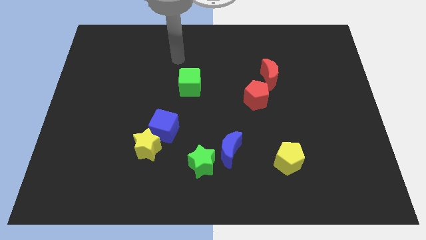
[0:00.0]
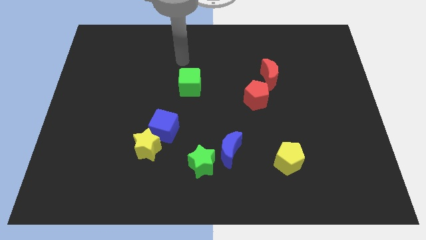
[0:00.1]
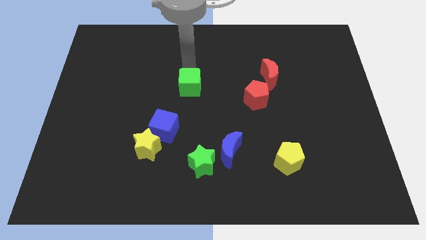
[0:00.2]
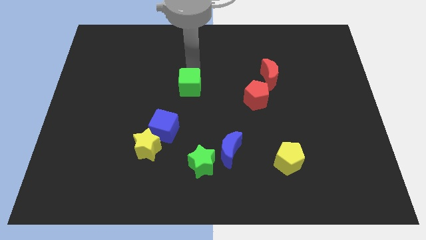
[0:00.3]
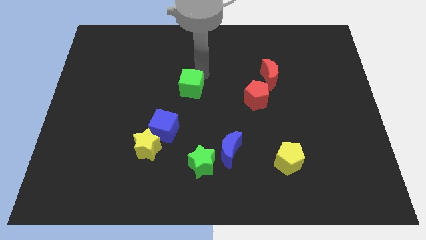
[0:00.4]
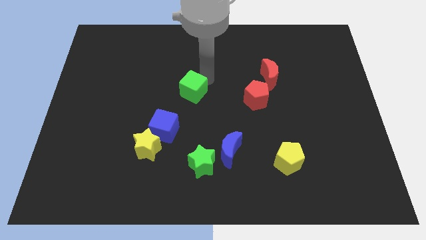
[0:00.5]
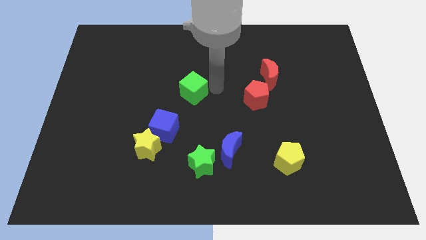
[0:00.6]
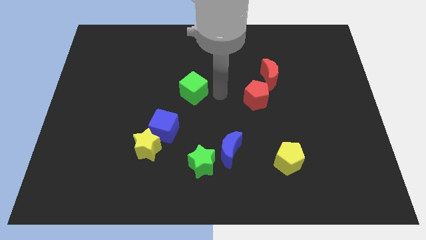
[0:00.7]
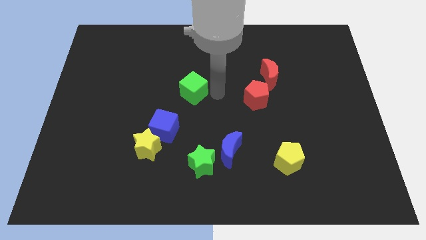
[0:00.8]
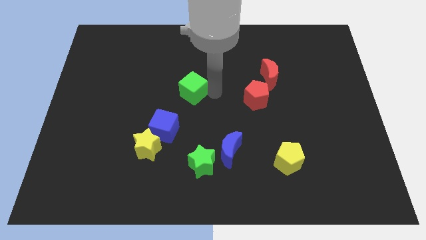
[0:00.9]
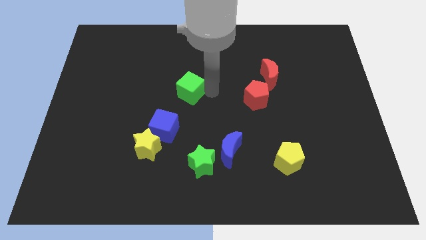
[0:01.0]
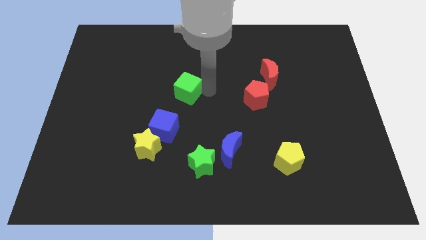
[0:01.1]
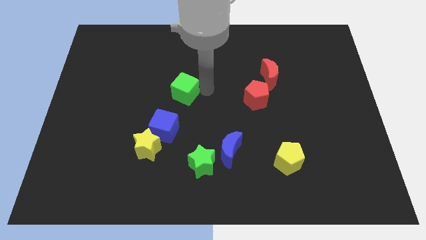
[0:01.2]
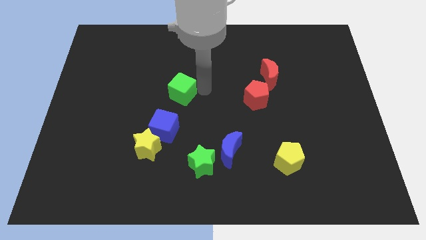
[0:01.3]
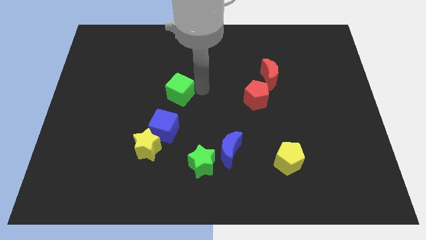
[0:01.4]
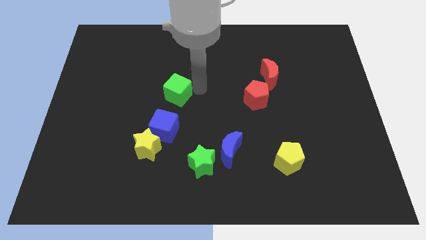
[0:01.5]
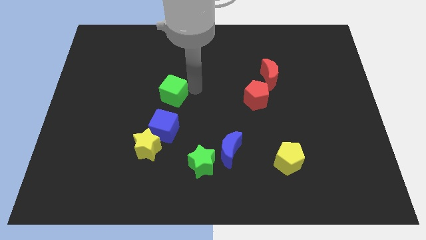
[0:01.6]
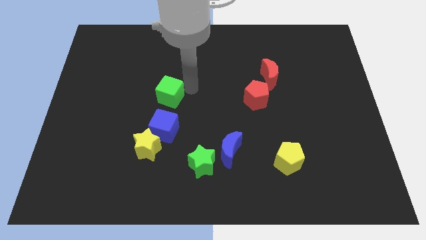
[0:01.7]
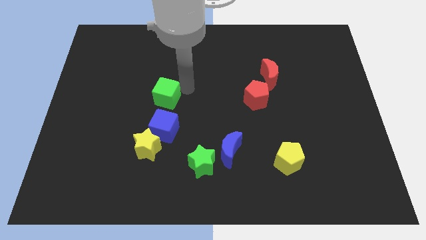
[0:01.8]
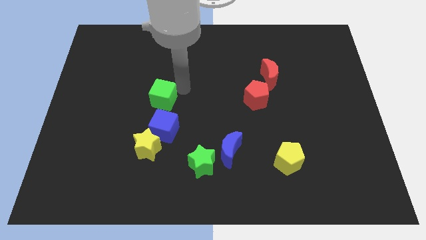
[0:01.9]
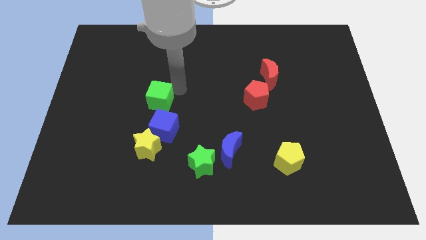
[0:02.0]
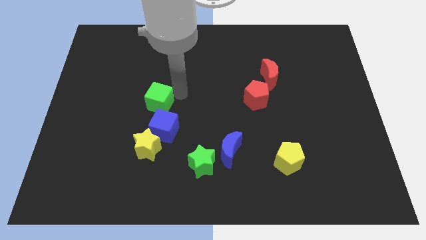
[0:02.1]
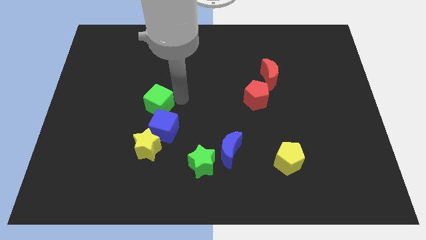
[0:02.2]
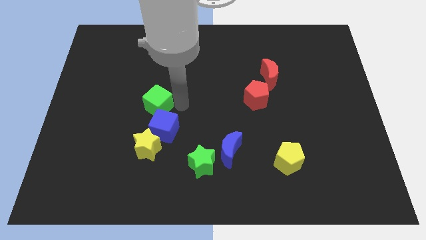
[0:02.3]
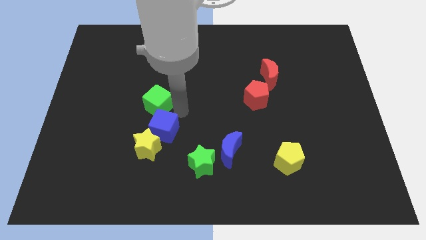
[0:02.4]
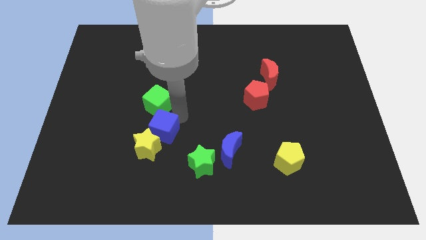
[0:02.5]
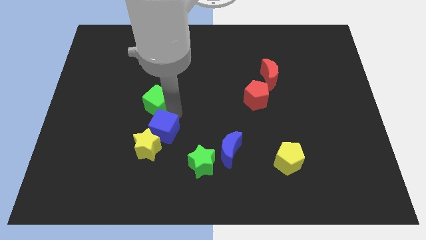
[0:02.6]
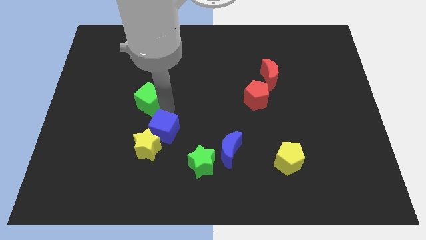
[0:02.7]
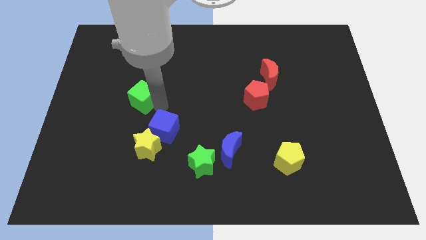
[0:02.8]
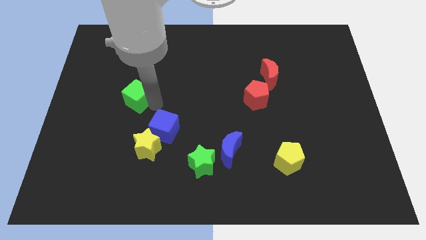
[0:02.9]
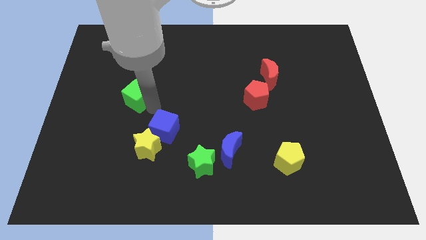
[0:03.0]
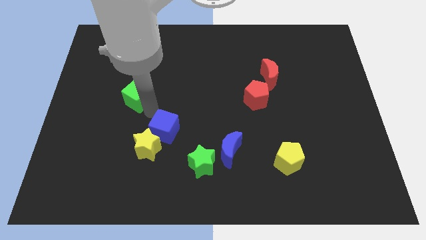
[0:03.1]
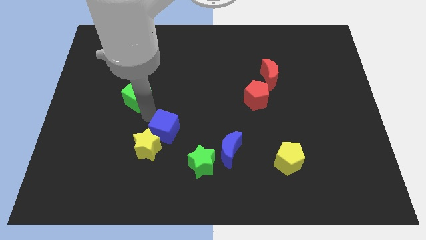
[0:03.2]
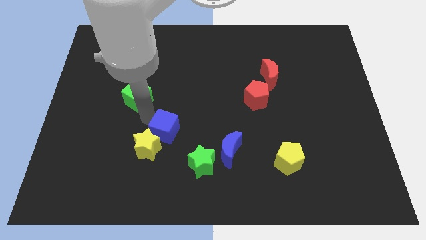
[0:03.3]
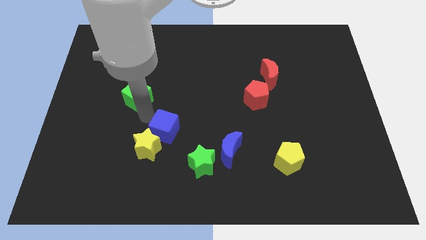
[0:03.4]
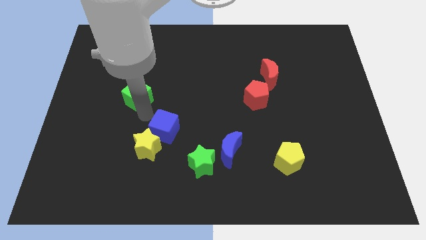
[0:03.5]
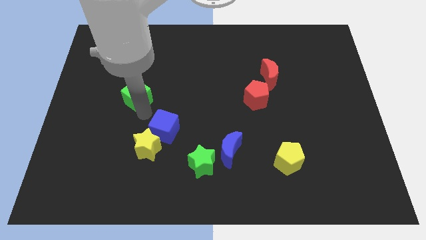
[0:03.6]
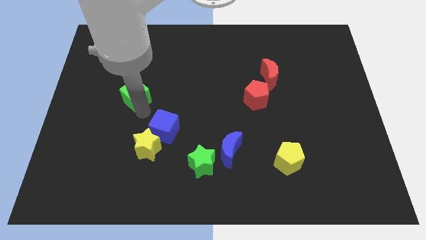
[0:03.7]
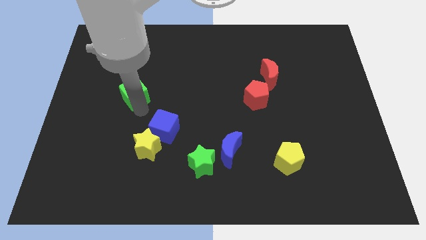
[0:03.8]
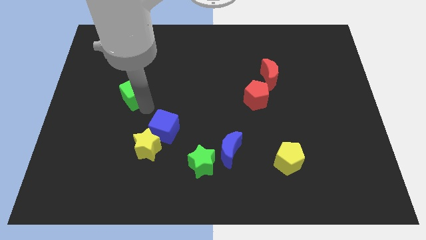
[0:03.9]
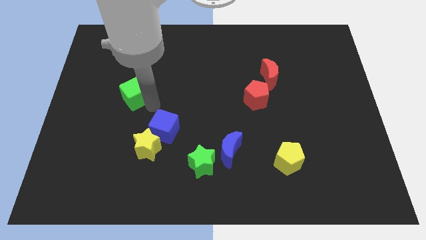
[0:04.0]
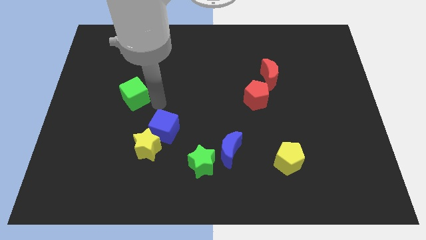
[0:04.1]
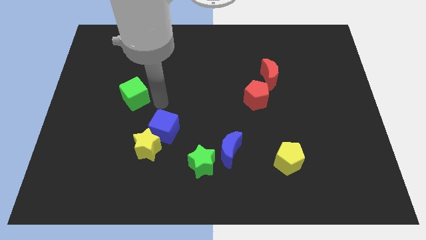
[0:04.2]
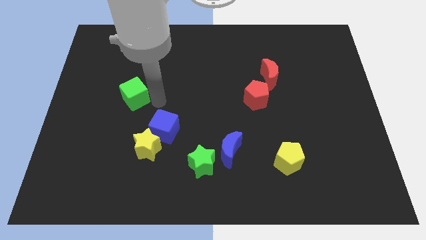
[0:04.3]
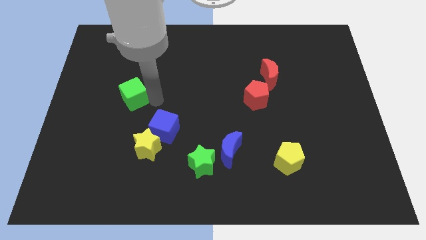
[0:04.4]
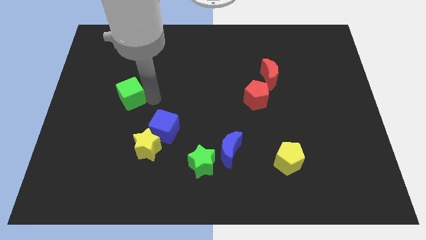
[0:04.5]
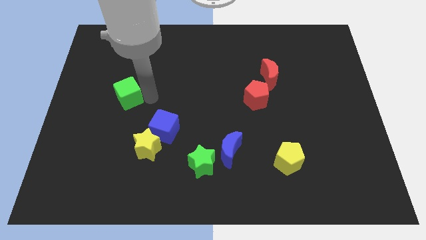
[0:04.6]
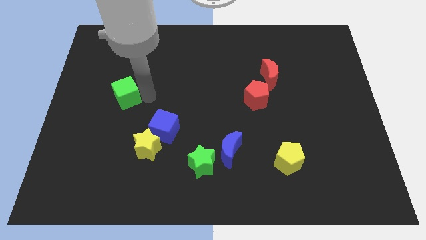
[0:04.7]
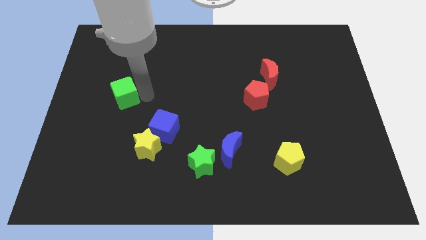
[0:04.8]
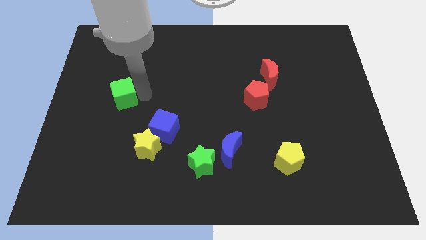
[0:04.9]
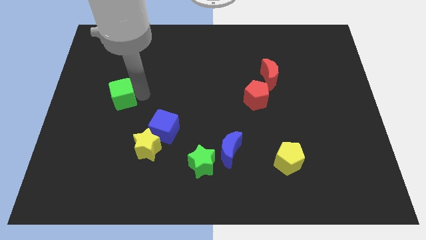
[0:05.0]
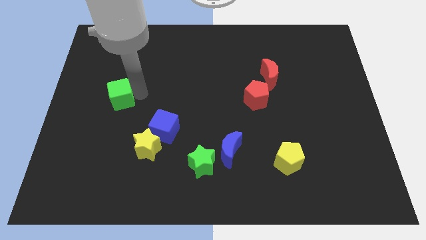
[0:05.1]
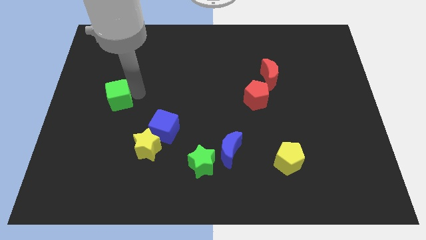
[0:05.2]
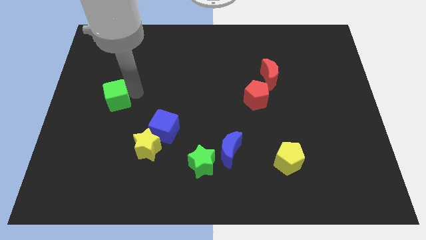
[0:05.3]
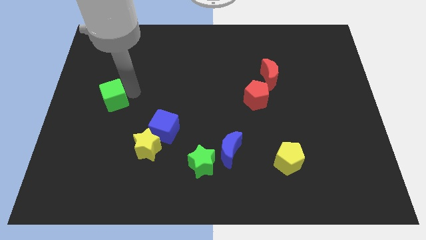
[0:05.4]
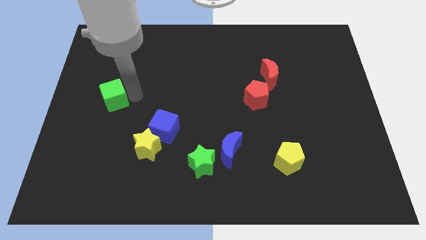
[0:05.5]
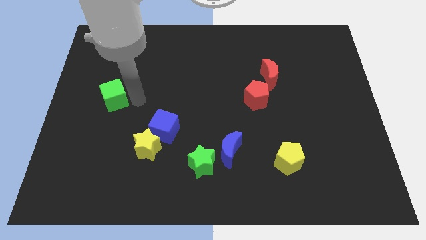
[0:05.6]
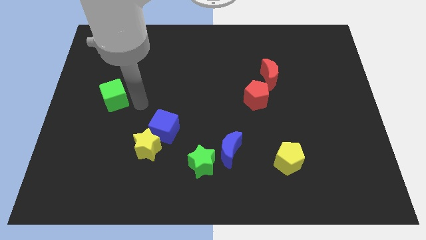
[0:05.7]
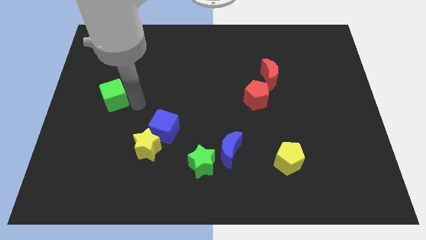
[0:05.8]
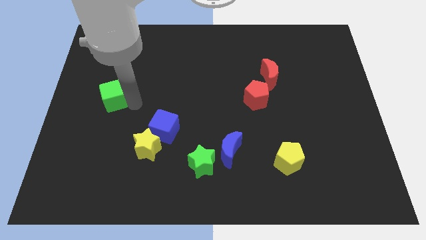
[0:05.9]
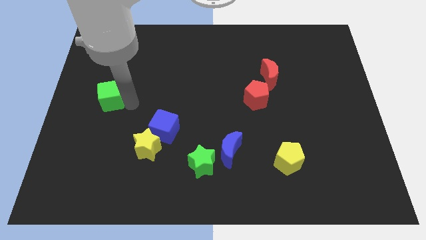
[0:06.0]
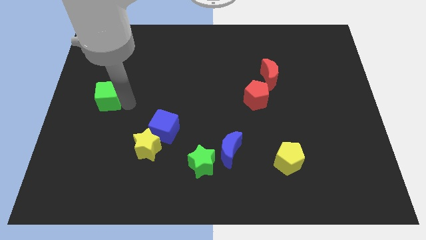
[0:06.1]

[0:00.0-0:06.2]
move the green cube to the left side of the board
